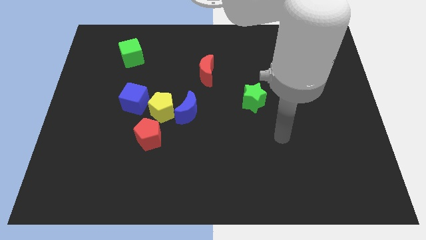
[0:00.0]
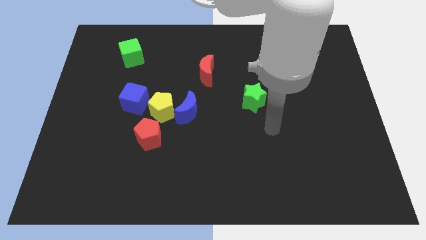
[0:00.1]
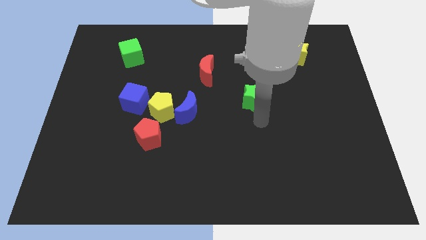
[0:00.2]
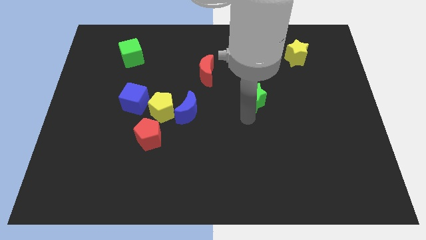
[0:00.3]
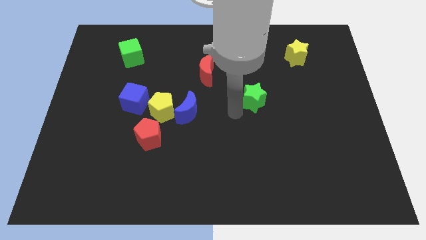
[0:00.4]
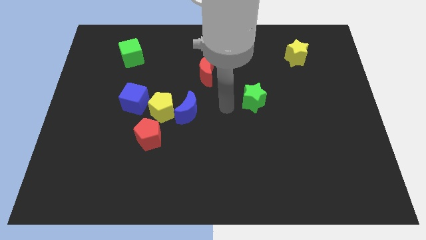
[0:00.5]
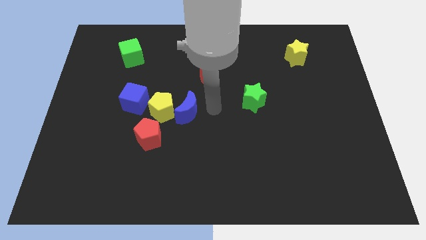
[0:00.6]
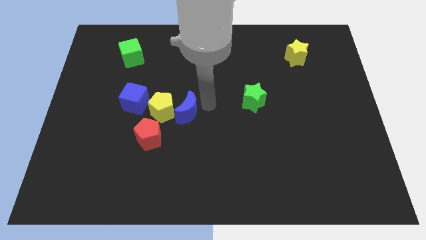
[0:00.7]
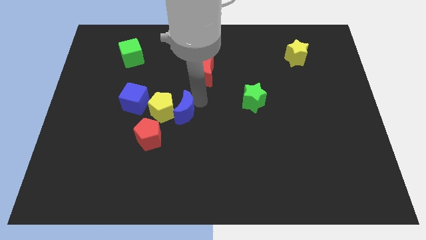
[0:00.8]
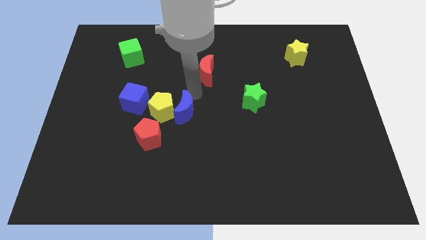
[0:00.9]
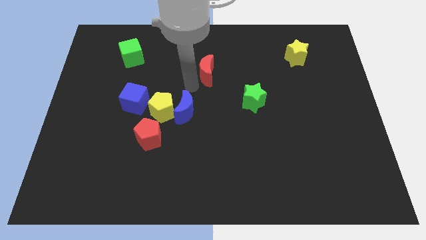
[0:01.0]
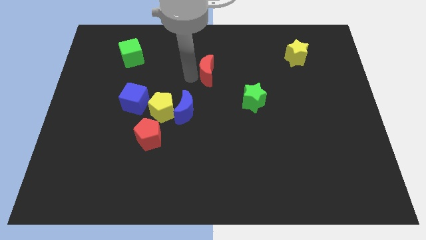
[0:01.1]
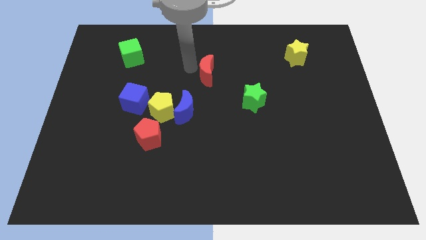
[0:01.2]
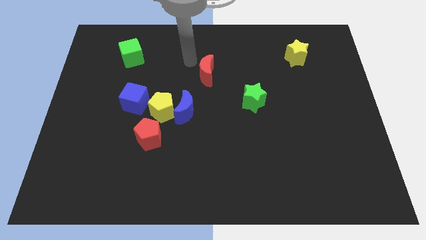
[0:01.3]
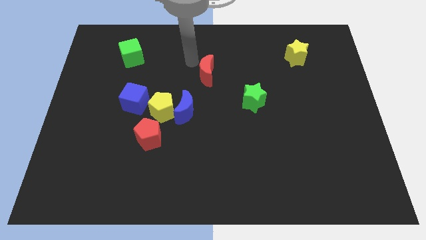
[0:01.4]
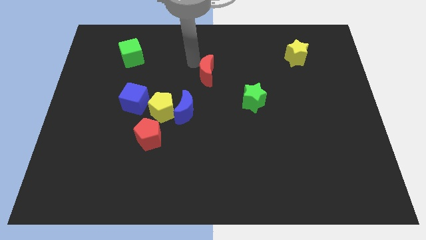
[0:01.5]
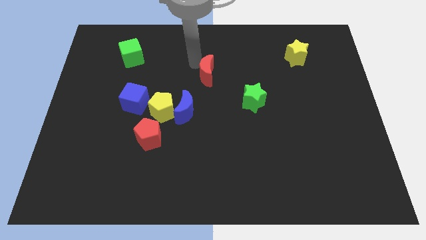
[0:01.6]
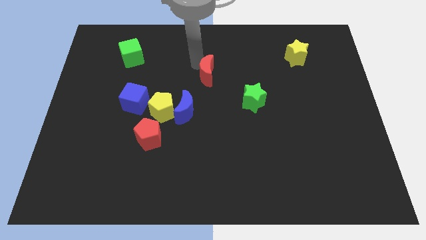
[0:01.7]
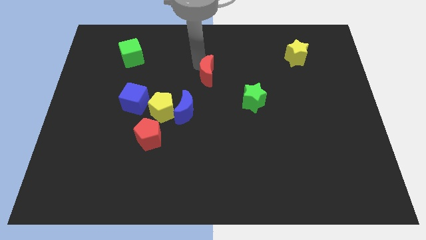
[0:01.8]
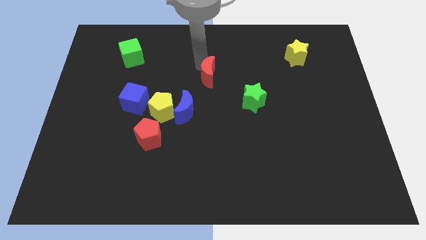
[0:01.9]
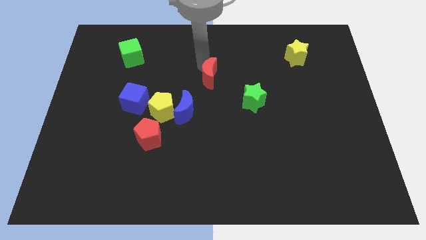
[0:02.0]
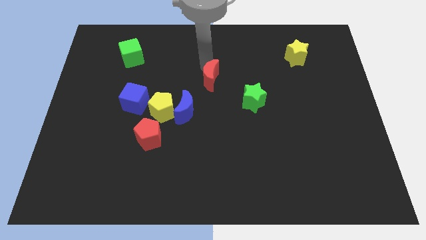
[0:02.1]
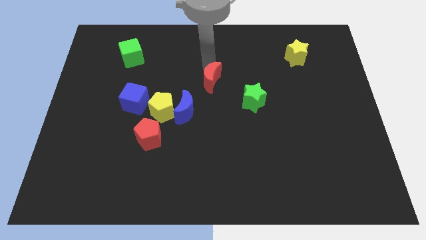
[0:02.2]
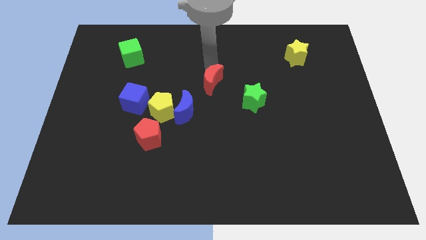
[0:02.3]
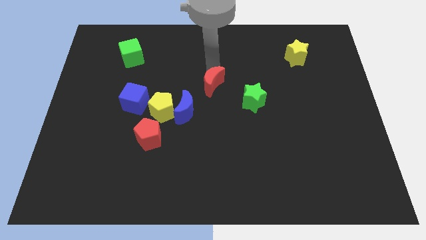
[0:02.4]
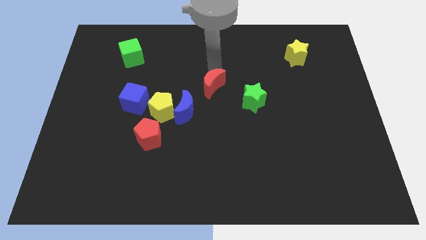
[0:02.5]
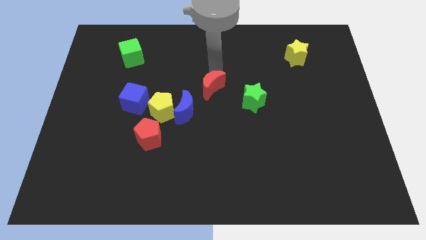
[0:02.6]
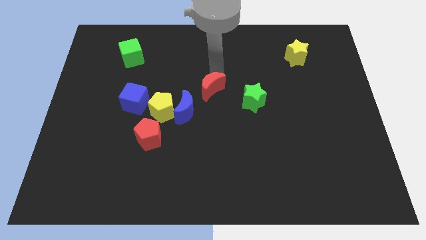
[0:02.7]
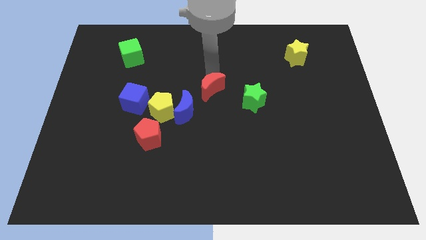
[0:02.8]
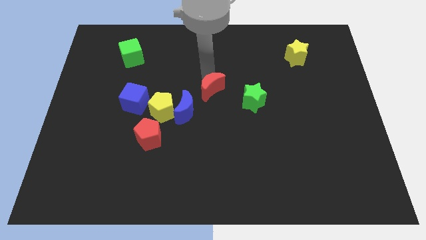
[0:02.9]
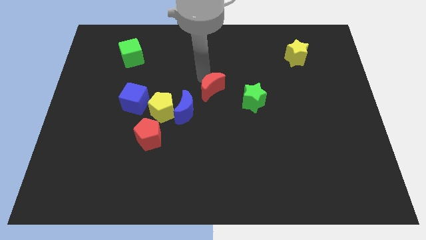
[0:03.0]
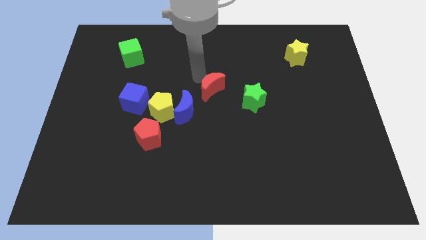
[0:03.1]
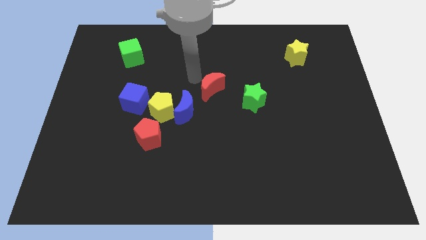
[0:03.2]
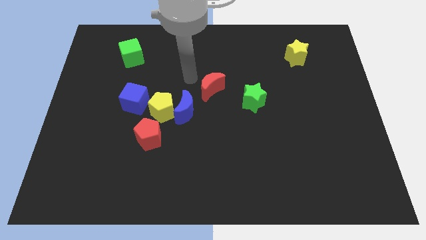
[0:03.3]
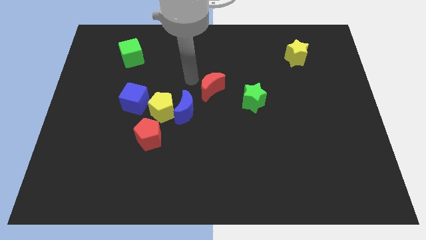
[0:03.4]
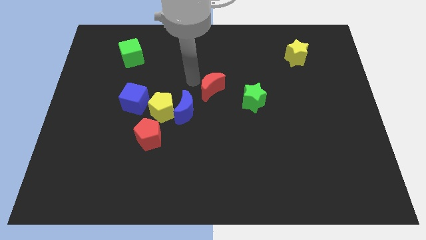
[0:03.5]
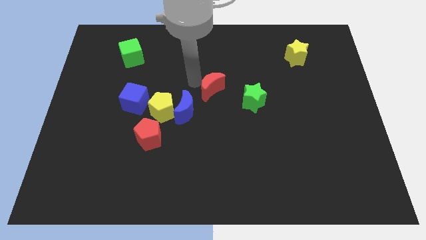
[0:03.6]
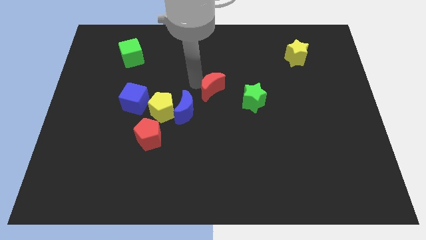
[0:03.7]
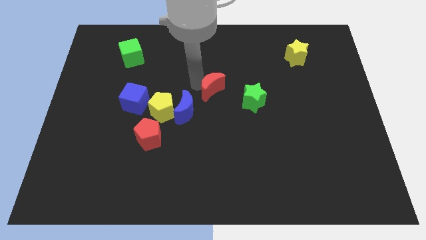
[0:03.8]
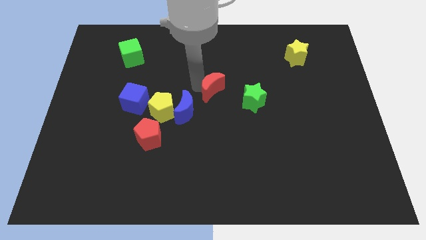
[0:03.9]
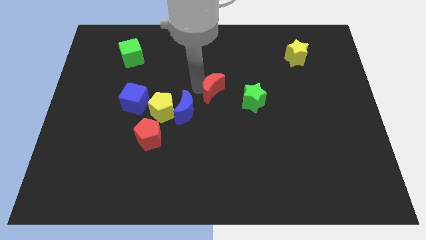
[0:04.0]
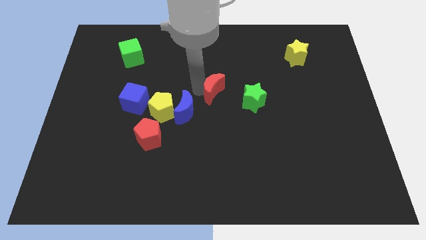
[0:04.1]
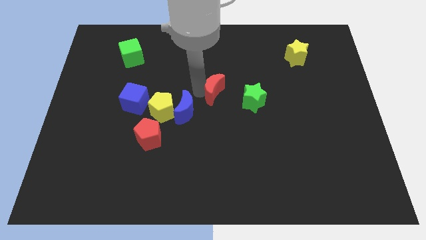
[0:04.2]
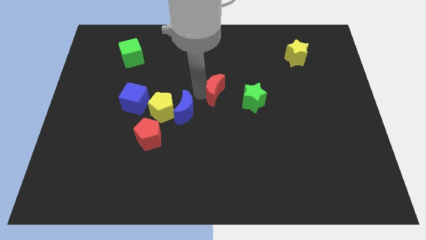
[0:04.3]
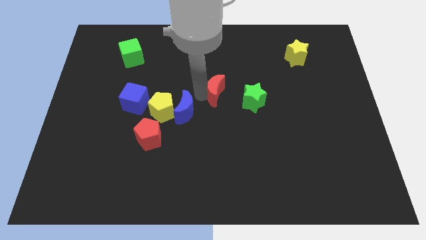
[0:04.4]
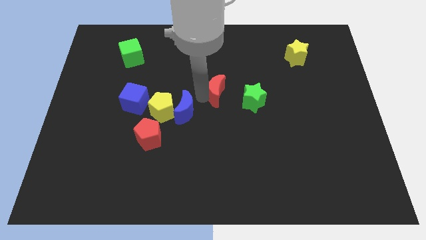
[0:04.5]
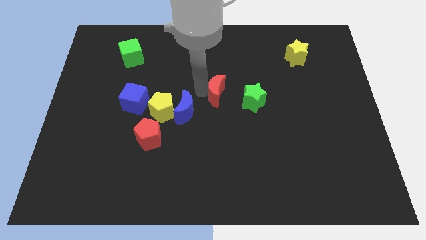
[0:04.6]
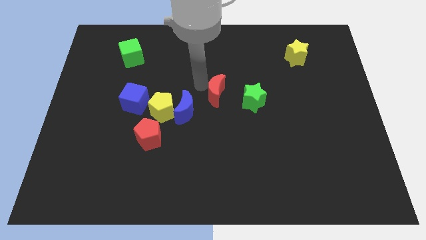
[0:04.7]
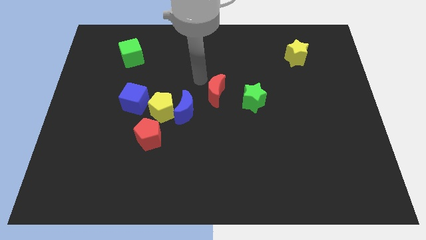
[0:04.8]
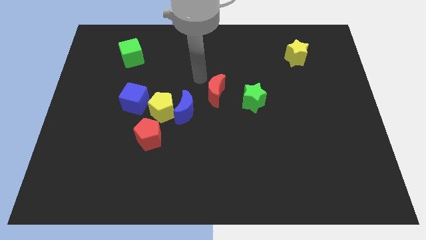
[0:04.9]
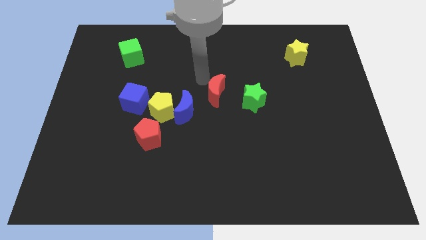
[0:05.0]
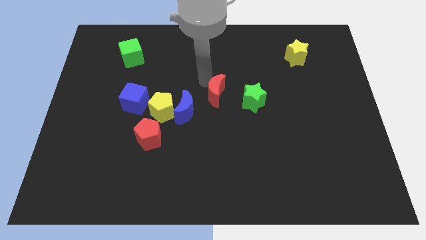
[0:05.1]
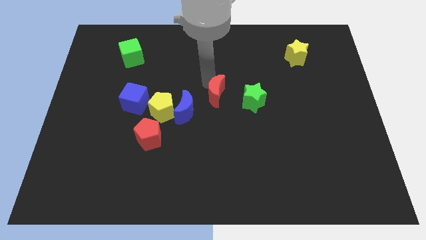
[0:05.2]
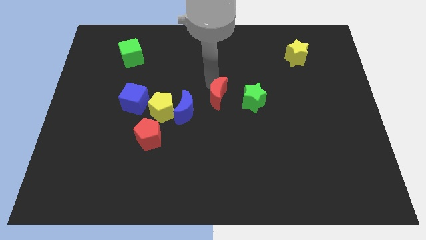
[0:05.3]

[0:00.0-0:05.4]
slightly push the red moon down and right diagonally

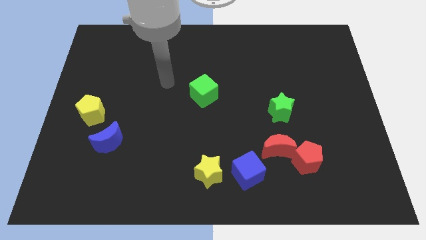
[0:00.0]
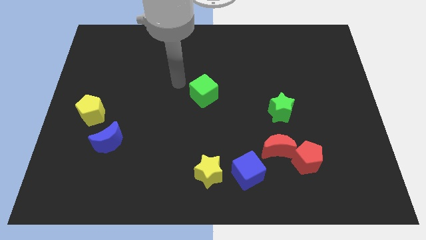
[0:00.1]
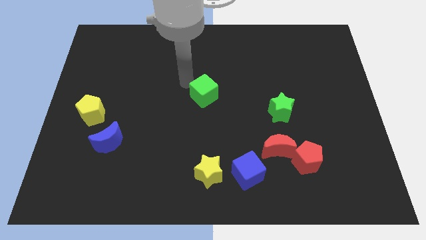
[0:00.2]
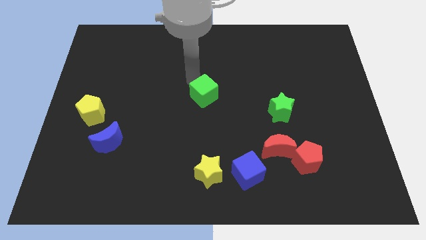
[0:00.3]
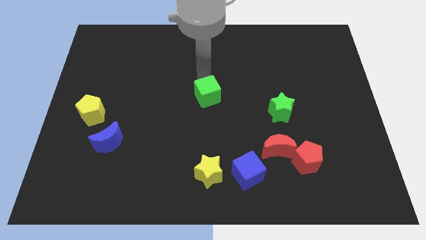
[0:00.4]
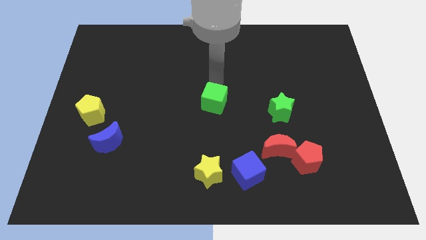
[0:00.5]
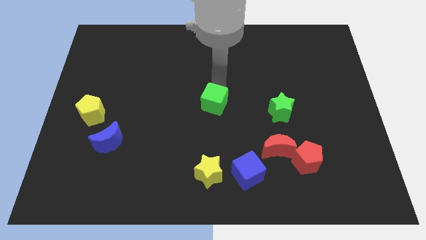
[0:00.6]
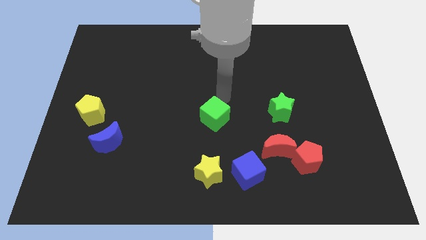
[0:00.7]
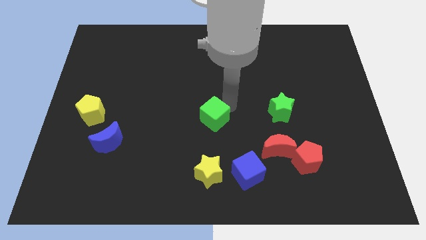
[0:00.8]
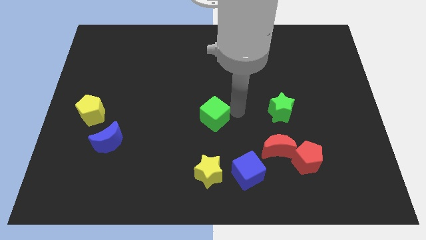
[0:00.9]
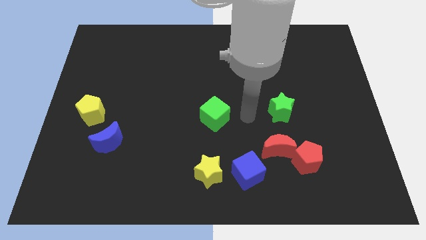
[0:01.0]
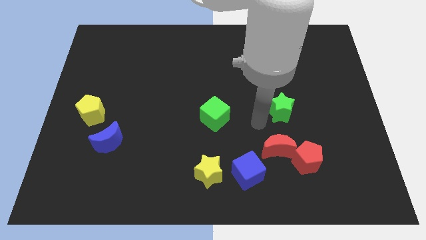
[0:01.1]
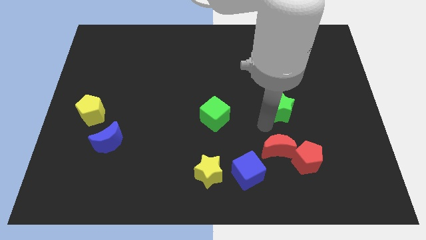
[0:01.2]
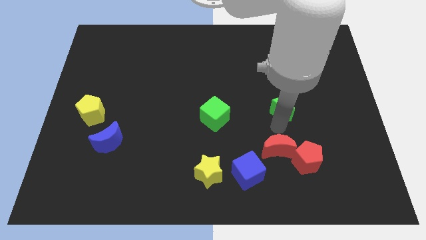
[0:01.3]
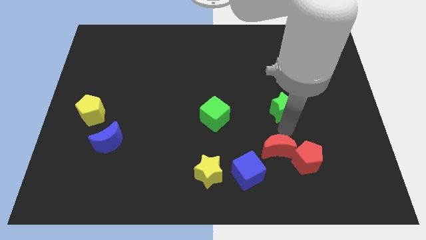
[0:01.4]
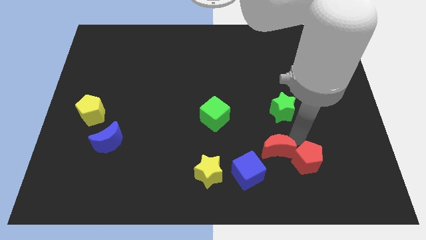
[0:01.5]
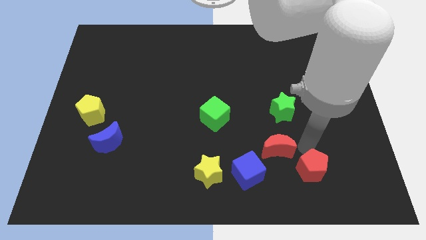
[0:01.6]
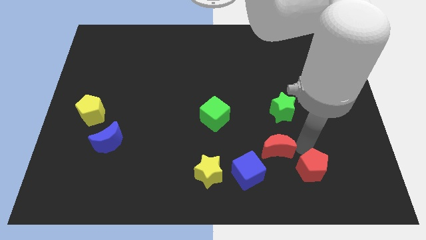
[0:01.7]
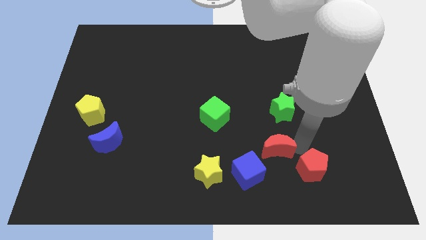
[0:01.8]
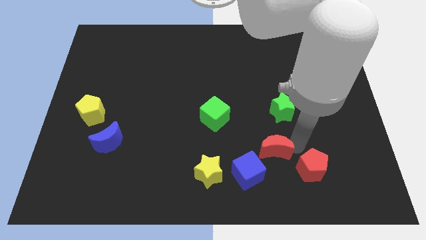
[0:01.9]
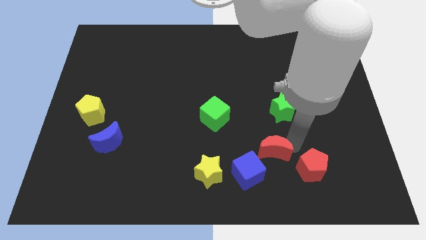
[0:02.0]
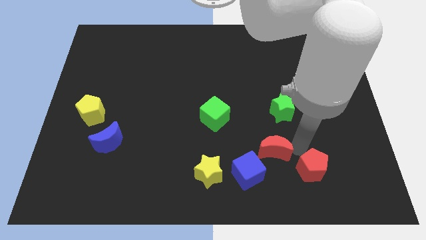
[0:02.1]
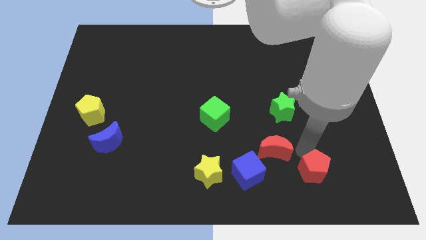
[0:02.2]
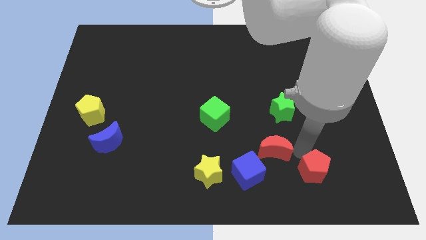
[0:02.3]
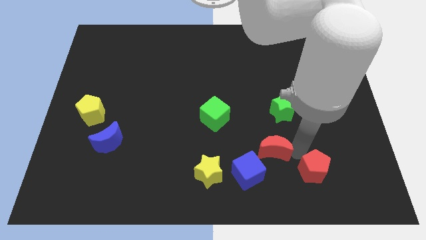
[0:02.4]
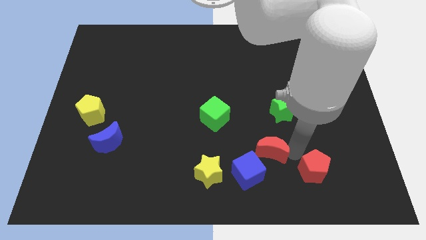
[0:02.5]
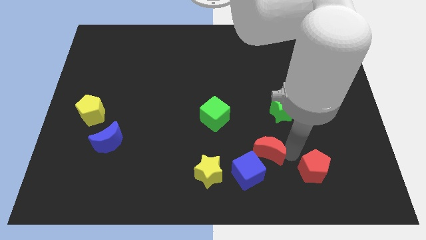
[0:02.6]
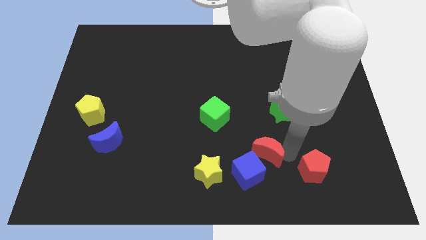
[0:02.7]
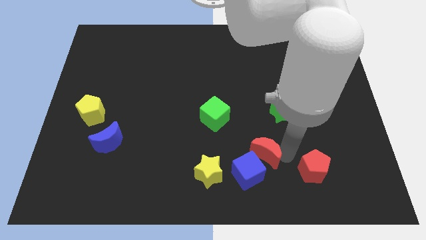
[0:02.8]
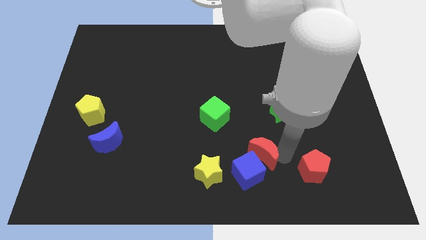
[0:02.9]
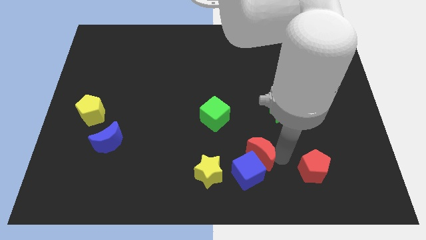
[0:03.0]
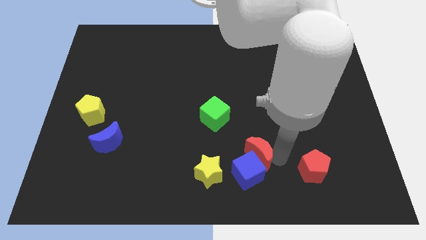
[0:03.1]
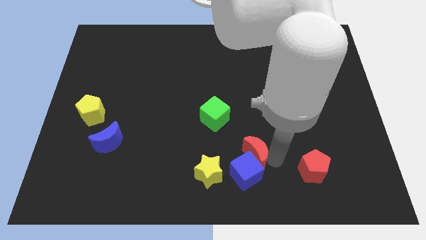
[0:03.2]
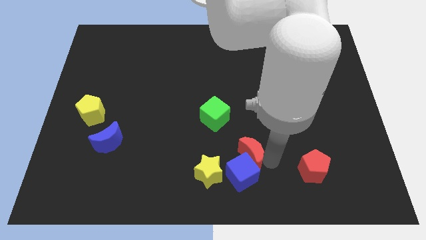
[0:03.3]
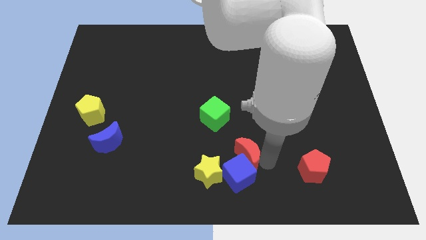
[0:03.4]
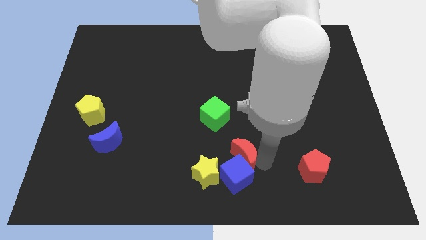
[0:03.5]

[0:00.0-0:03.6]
push the red moon left a bit
